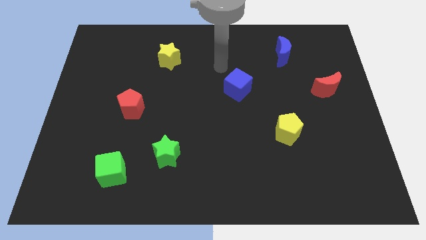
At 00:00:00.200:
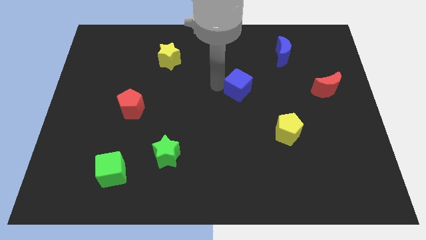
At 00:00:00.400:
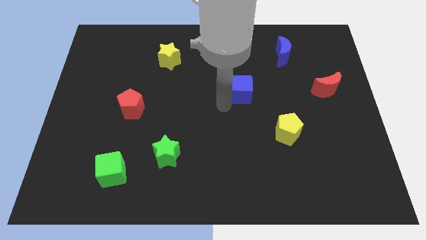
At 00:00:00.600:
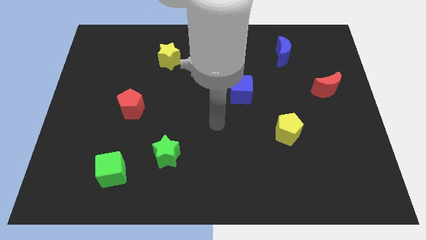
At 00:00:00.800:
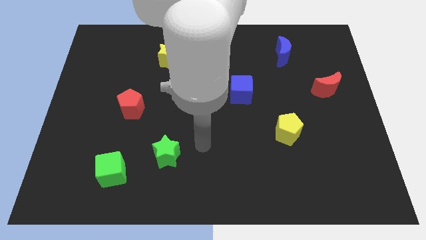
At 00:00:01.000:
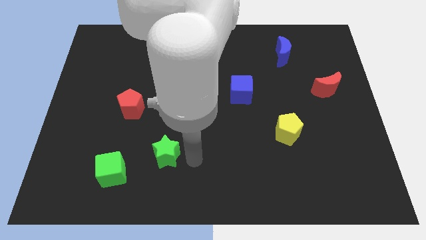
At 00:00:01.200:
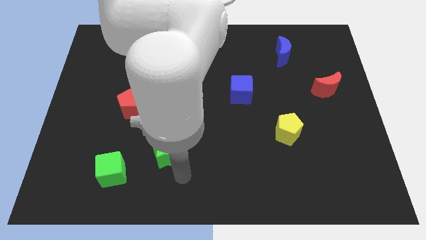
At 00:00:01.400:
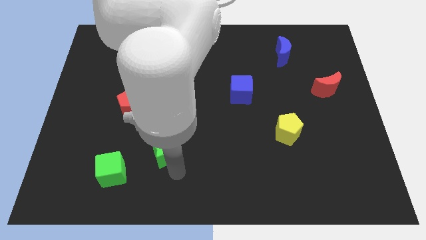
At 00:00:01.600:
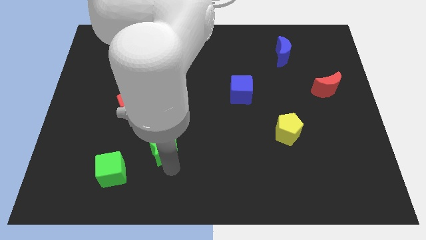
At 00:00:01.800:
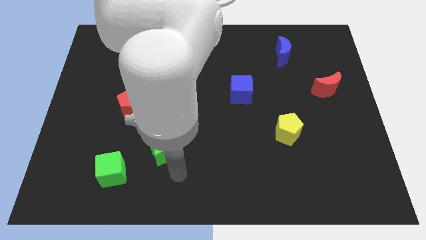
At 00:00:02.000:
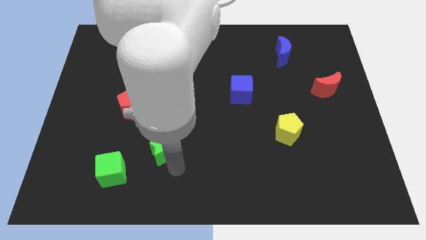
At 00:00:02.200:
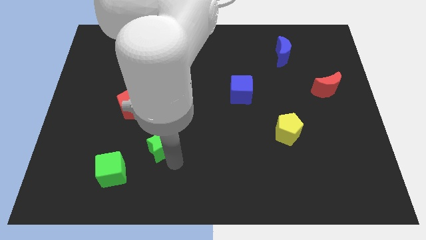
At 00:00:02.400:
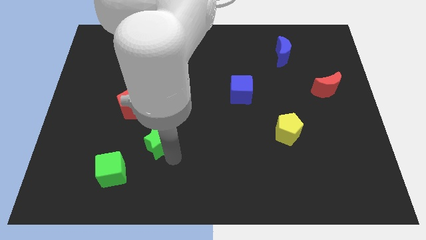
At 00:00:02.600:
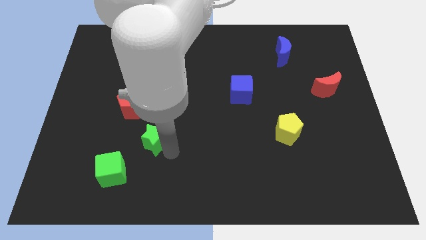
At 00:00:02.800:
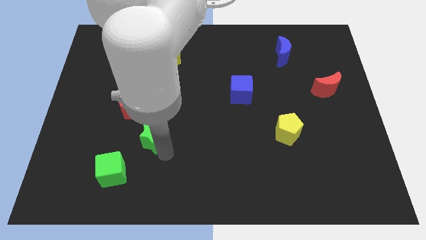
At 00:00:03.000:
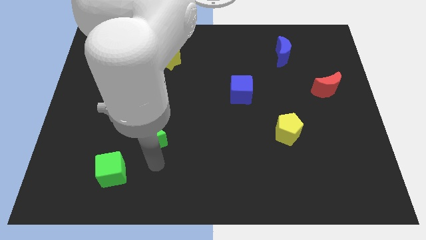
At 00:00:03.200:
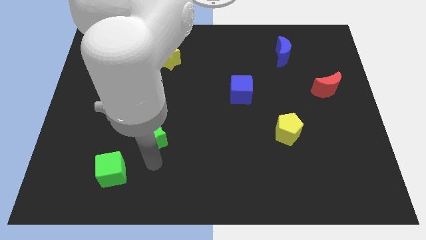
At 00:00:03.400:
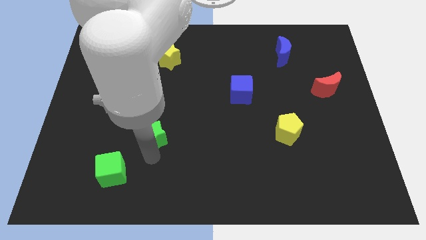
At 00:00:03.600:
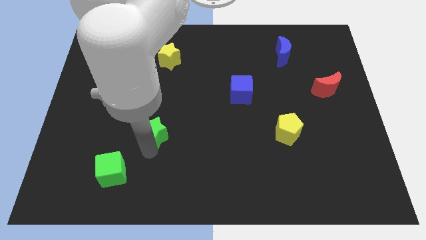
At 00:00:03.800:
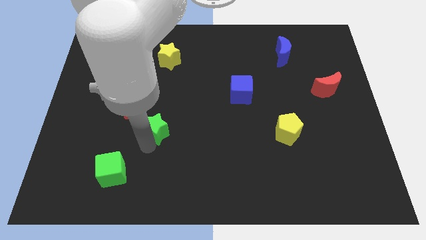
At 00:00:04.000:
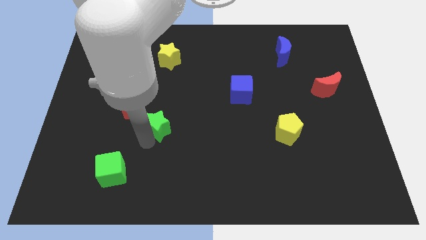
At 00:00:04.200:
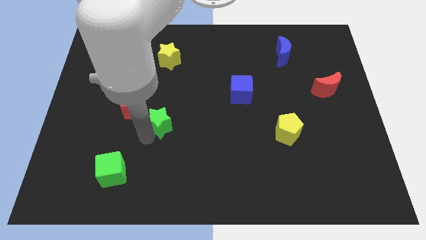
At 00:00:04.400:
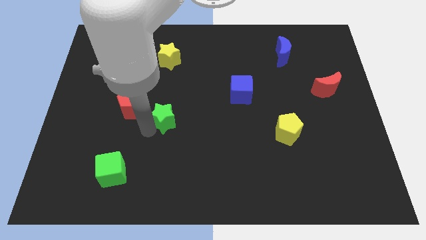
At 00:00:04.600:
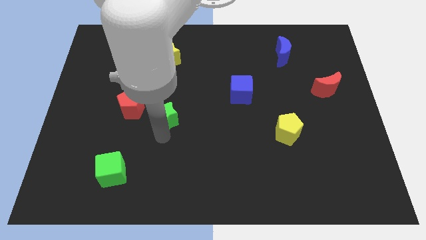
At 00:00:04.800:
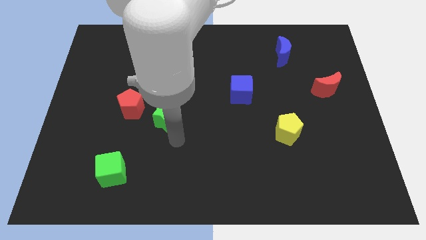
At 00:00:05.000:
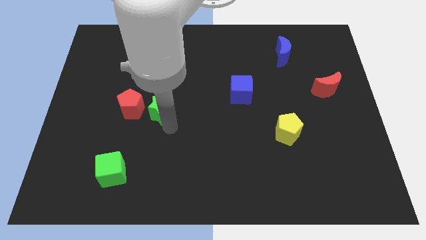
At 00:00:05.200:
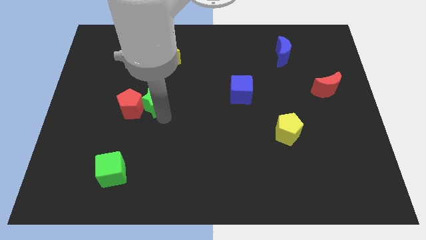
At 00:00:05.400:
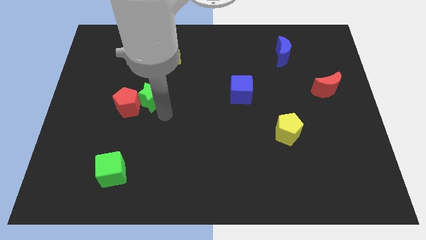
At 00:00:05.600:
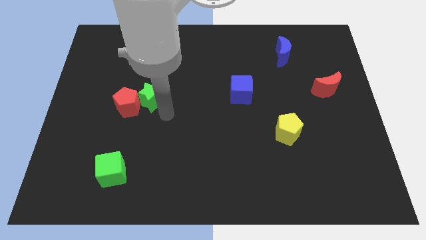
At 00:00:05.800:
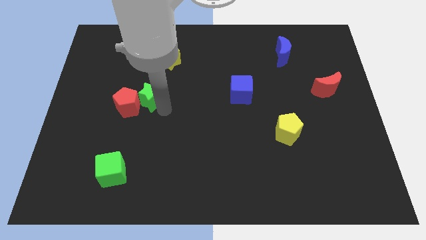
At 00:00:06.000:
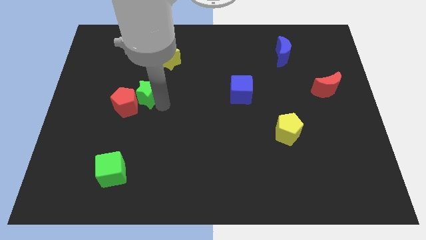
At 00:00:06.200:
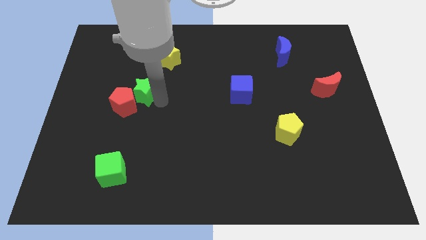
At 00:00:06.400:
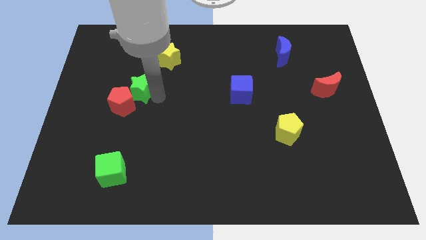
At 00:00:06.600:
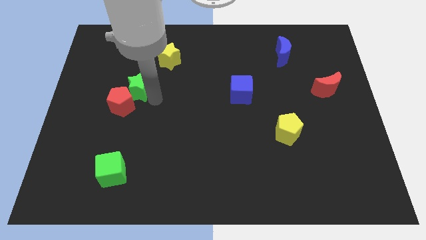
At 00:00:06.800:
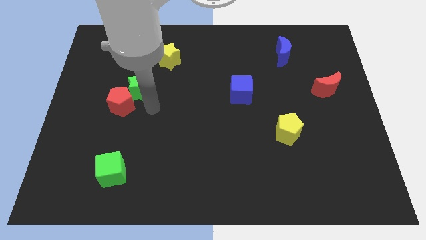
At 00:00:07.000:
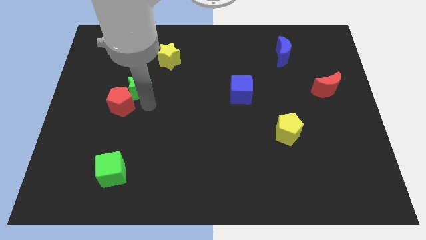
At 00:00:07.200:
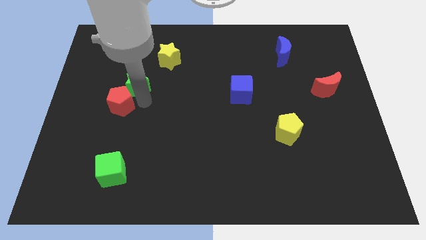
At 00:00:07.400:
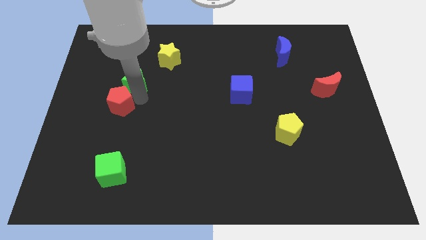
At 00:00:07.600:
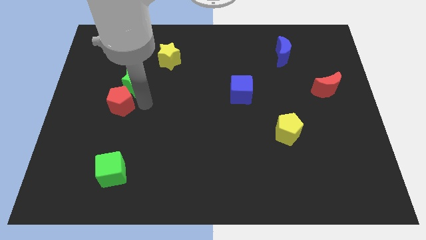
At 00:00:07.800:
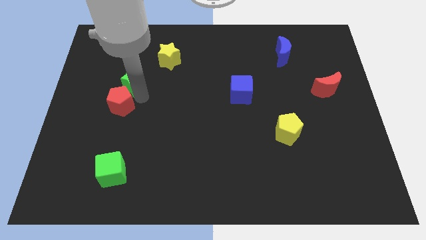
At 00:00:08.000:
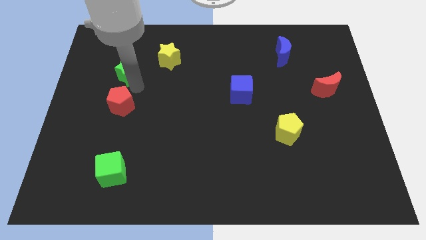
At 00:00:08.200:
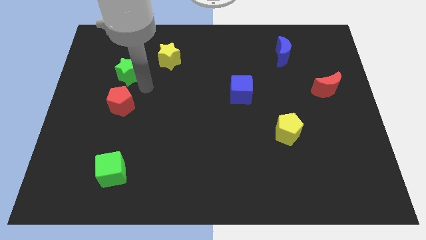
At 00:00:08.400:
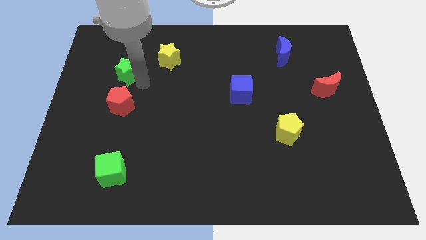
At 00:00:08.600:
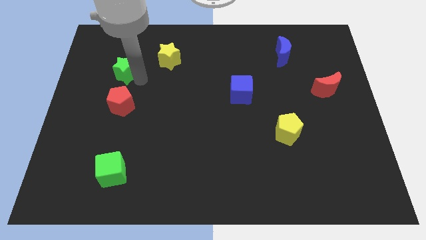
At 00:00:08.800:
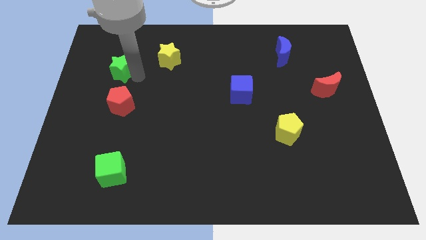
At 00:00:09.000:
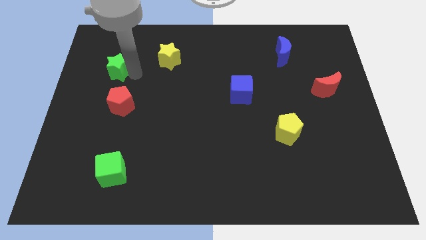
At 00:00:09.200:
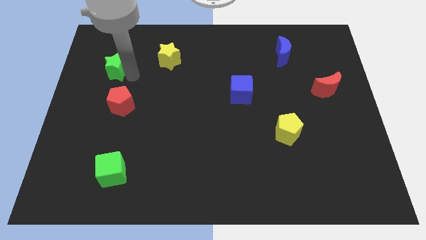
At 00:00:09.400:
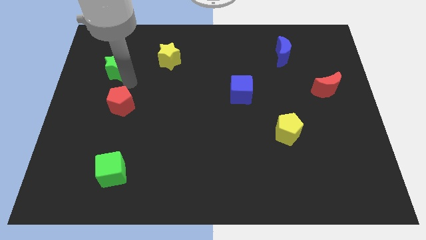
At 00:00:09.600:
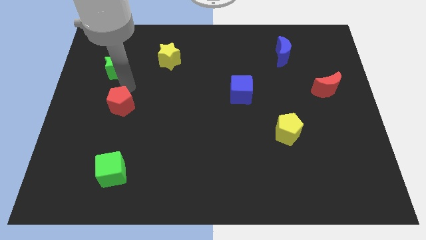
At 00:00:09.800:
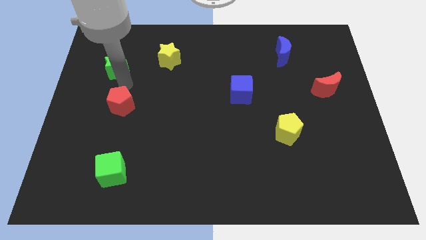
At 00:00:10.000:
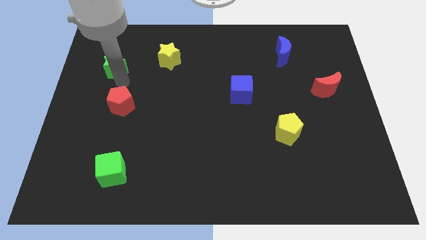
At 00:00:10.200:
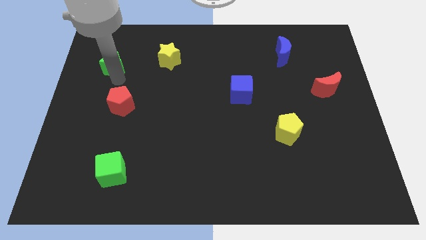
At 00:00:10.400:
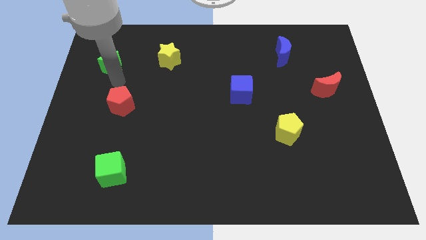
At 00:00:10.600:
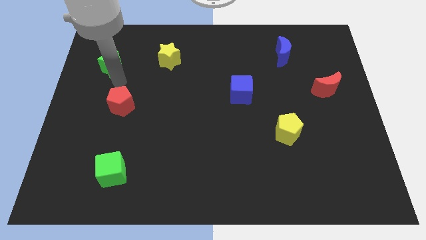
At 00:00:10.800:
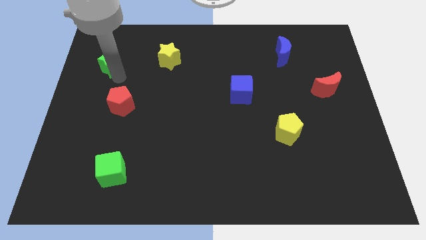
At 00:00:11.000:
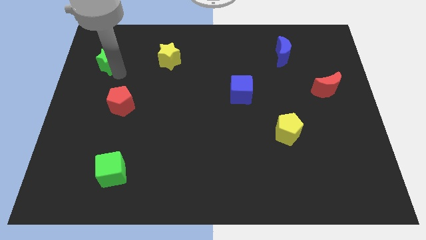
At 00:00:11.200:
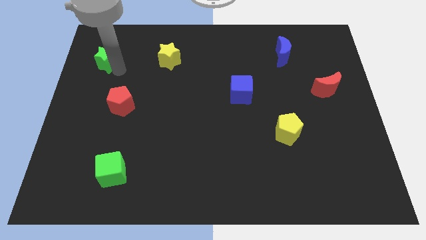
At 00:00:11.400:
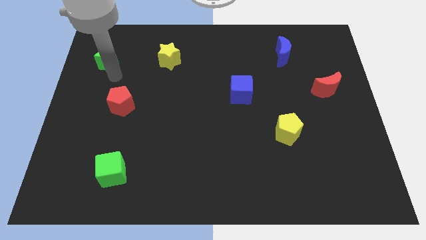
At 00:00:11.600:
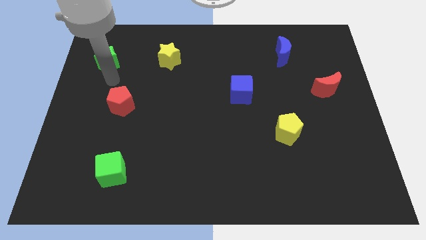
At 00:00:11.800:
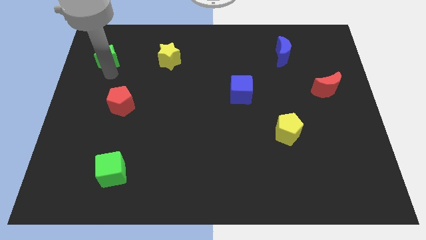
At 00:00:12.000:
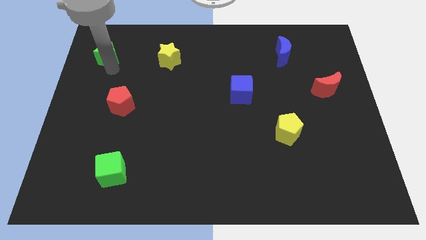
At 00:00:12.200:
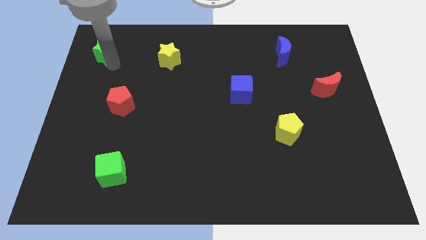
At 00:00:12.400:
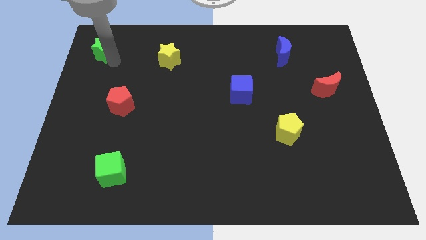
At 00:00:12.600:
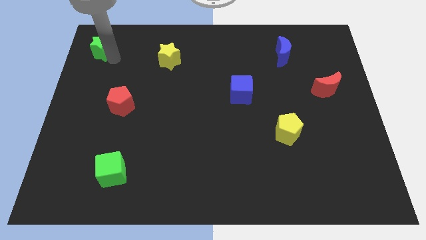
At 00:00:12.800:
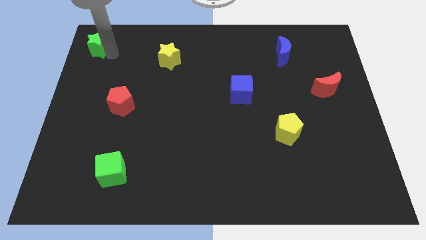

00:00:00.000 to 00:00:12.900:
put the green star to the upper left corner
